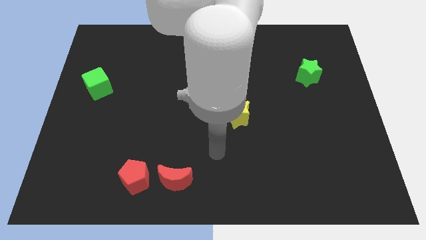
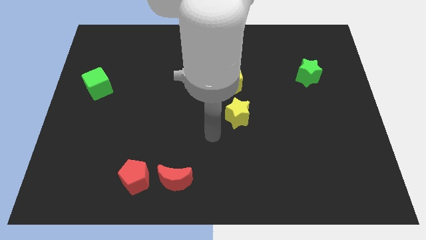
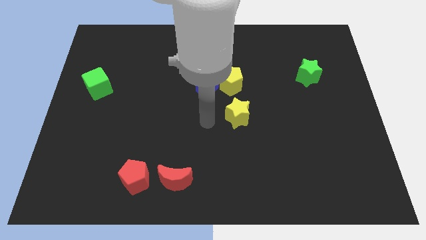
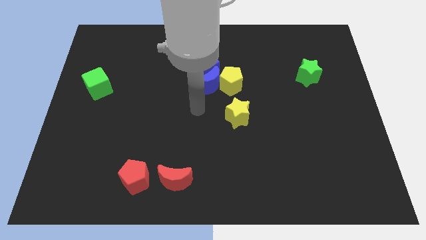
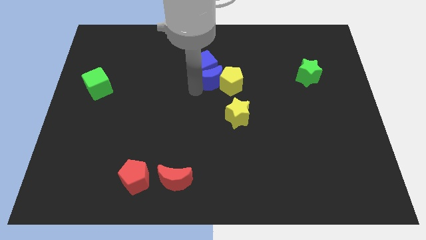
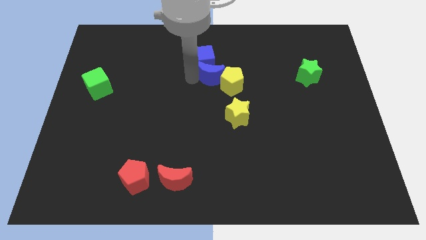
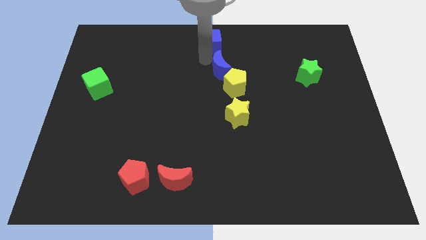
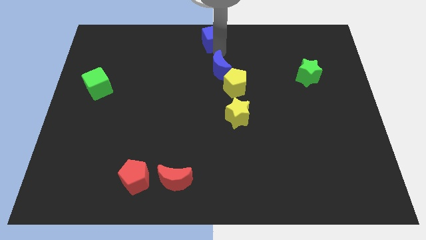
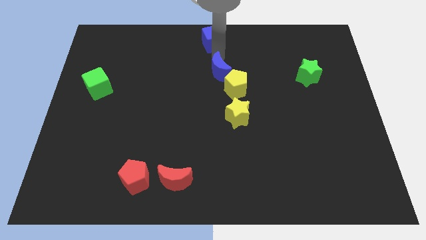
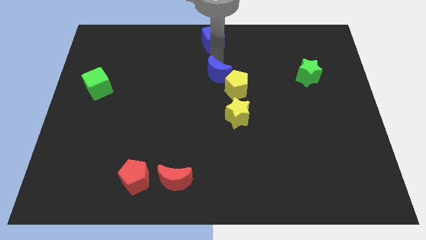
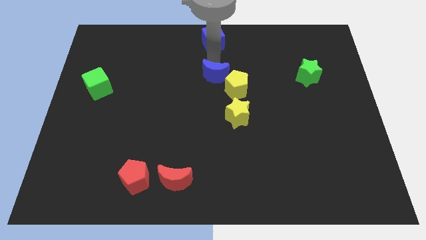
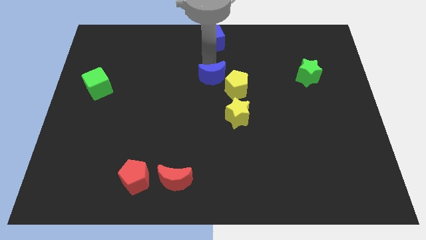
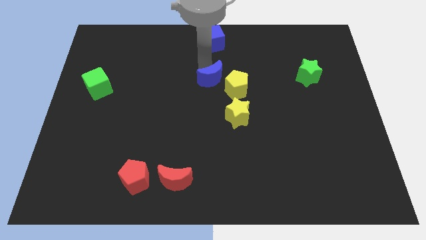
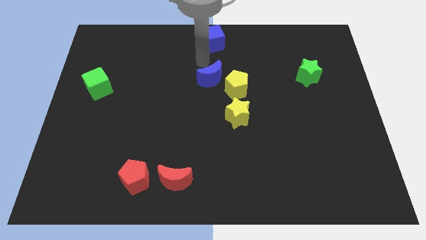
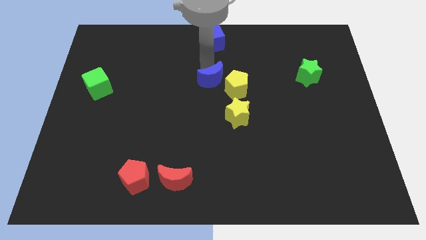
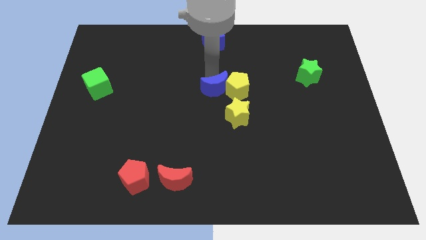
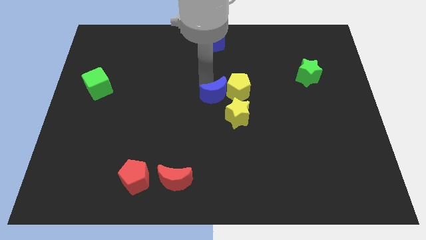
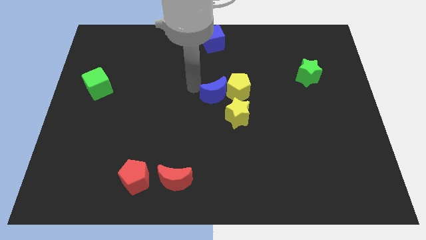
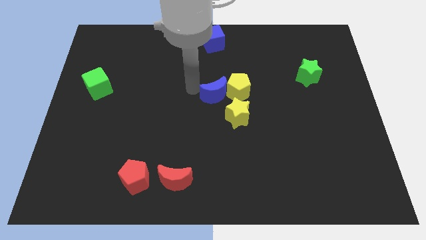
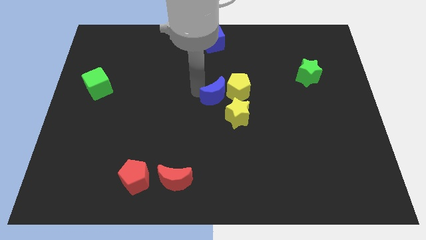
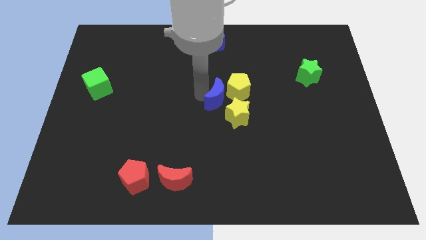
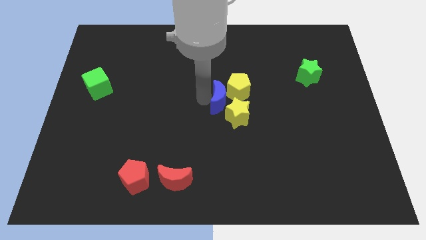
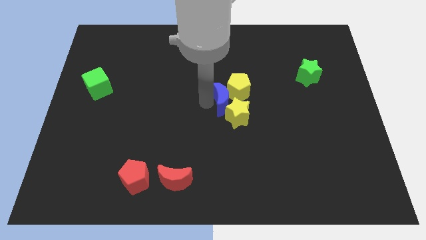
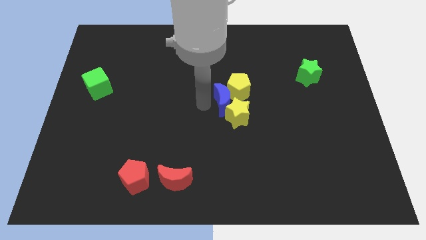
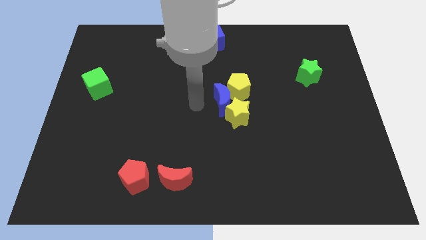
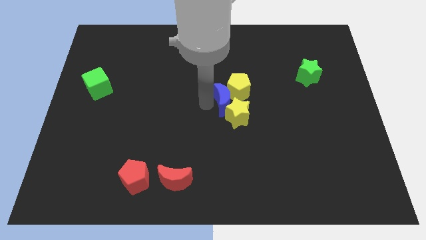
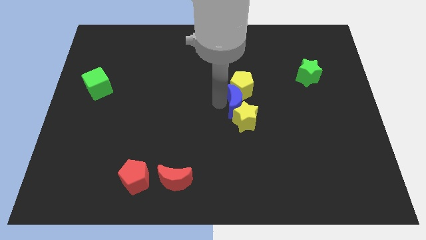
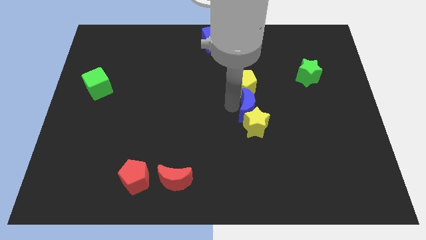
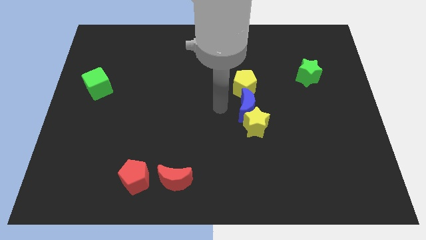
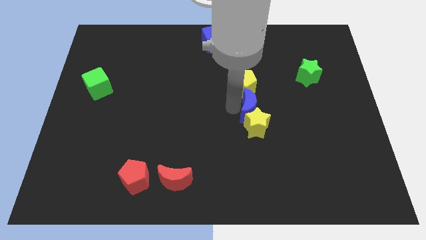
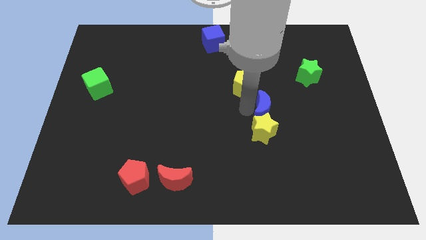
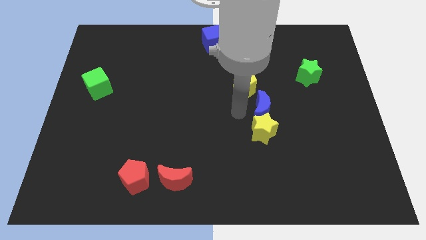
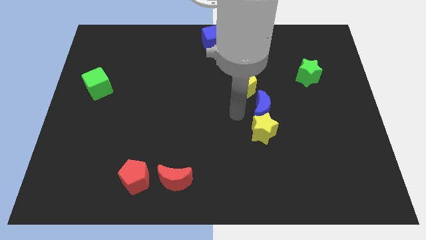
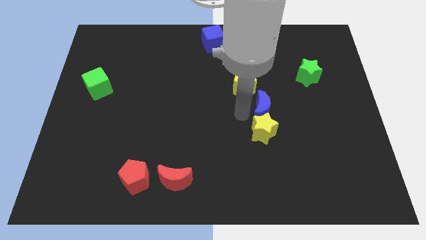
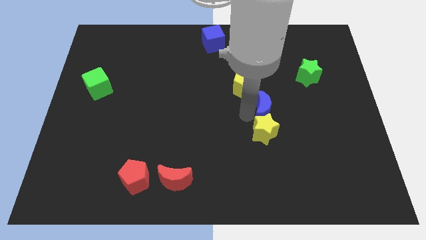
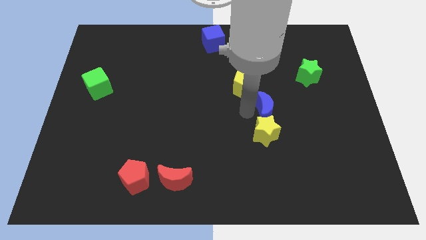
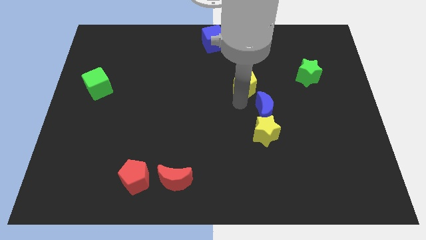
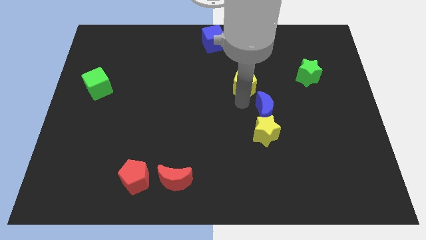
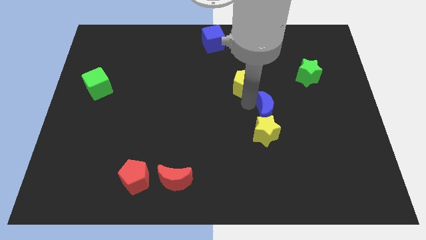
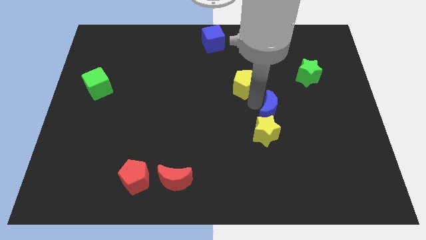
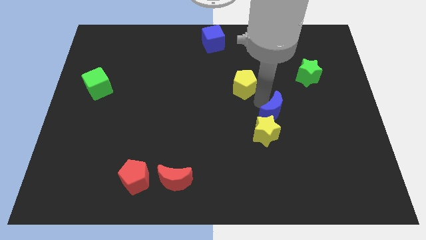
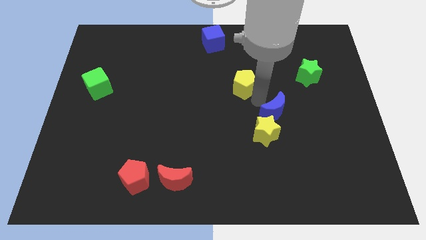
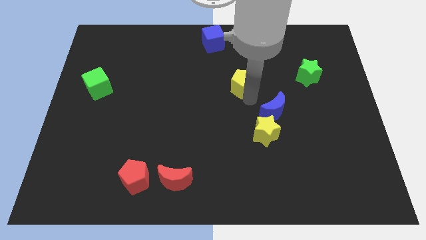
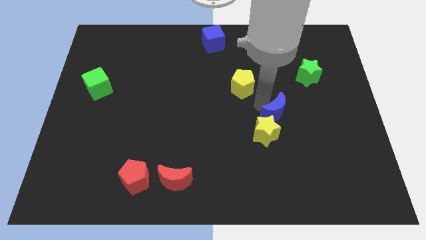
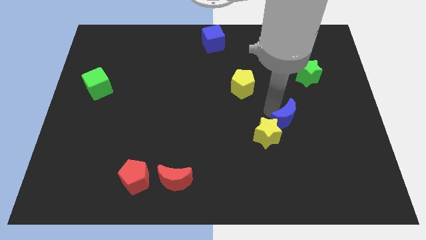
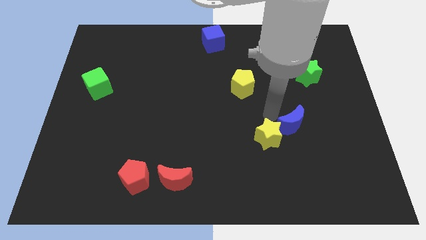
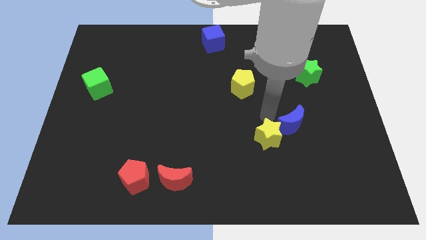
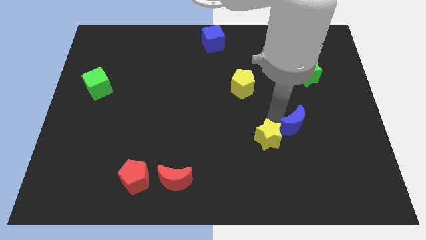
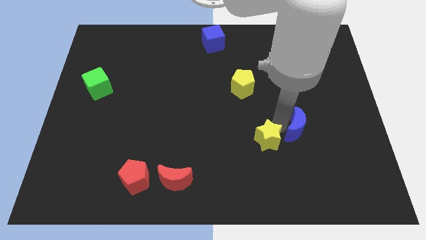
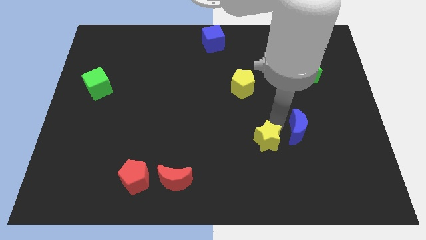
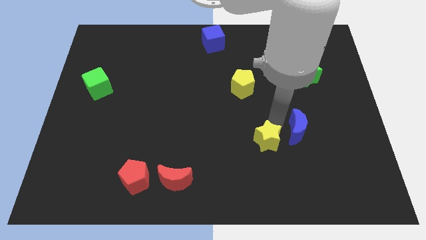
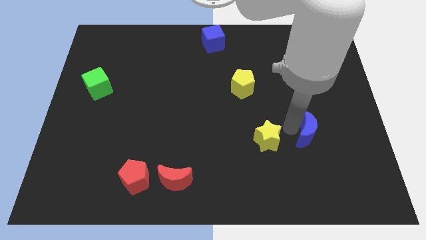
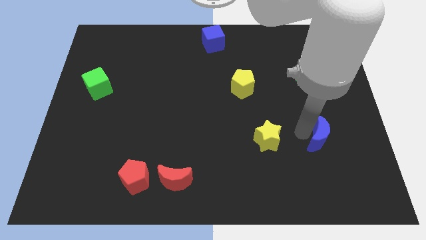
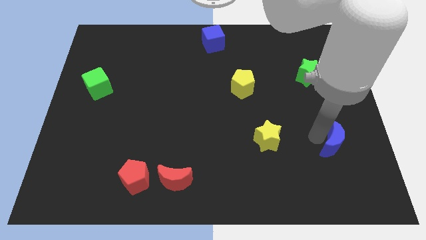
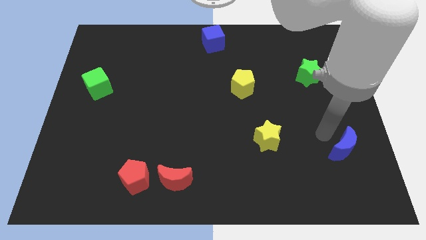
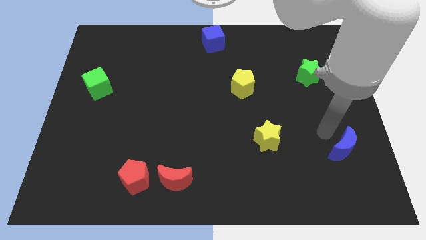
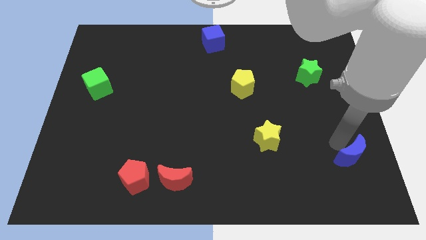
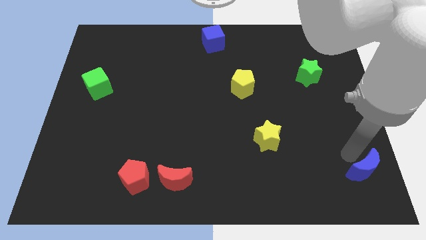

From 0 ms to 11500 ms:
move the blue moon to the bottom right

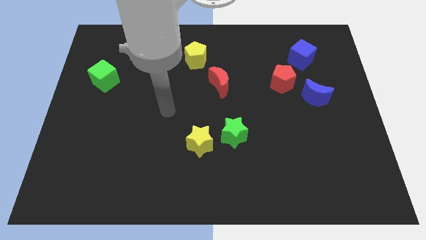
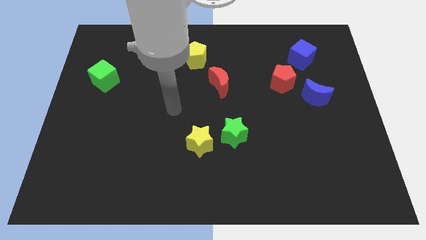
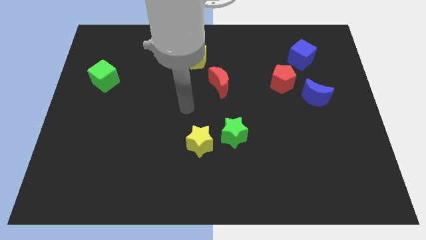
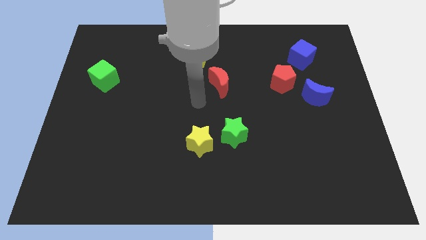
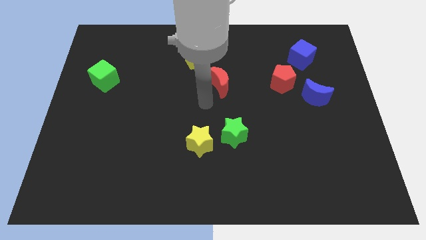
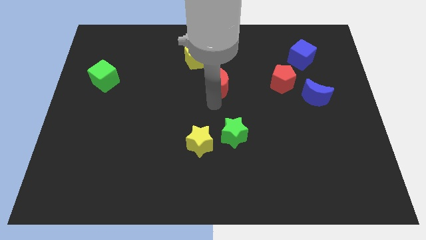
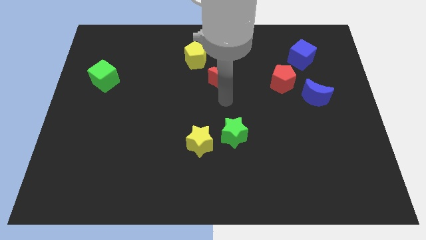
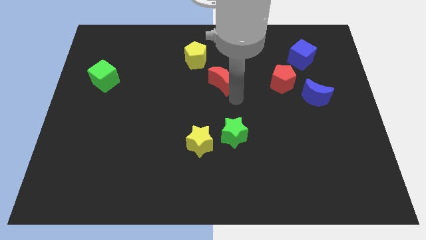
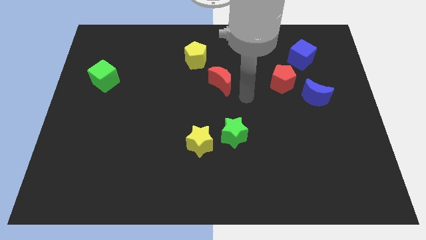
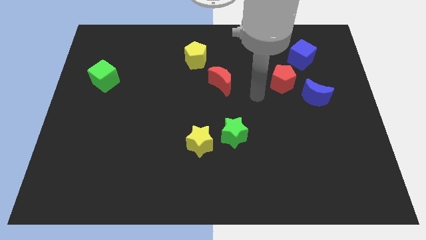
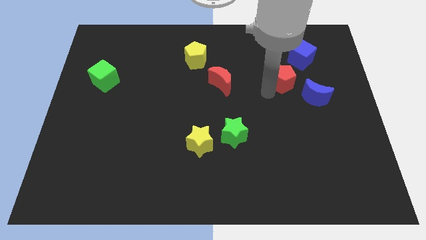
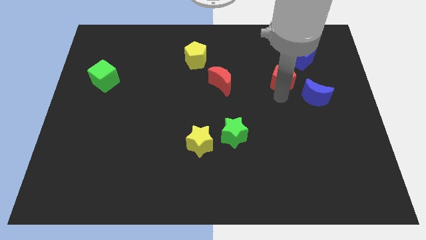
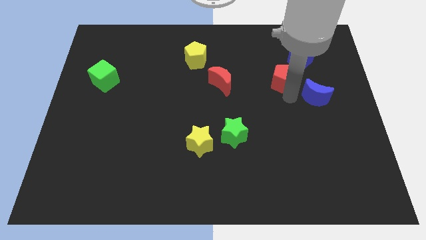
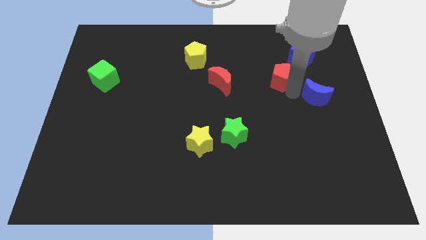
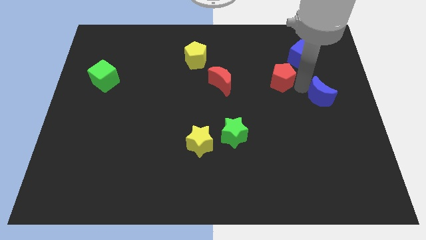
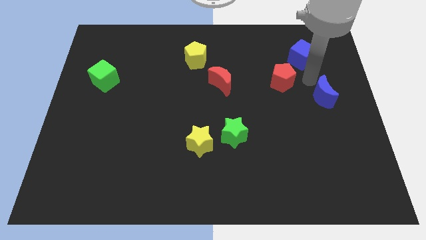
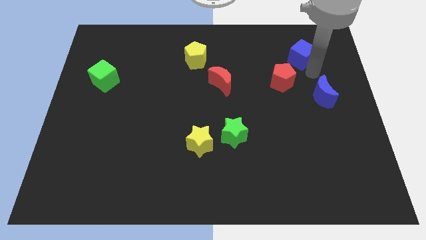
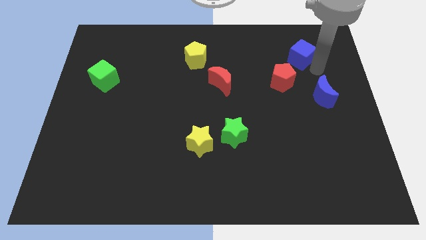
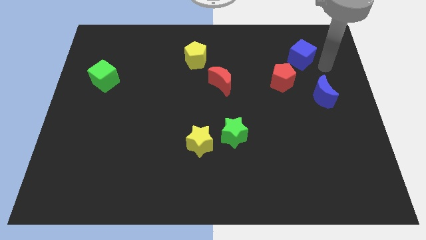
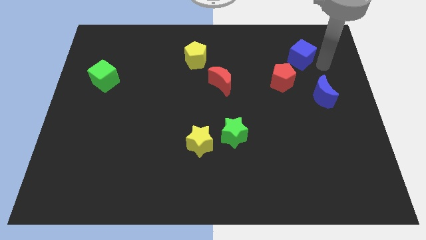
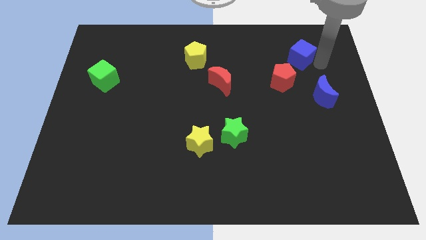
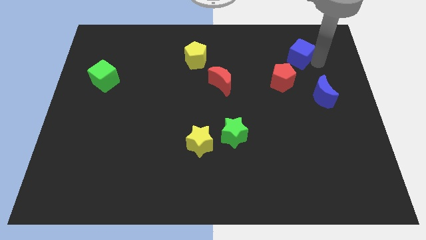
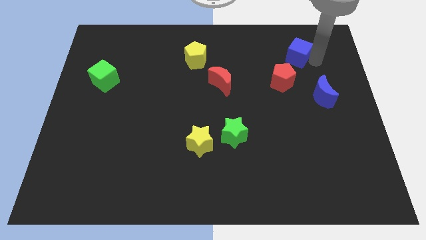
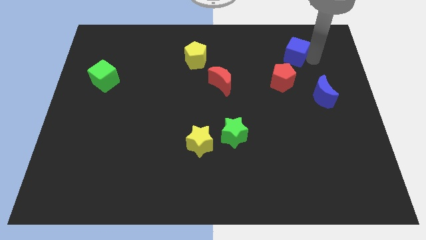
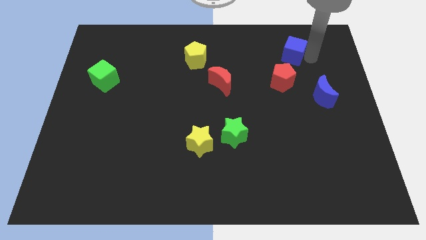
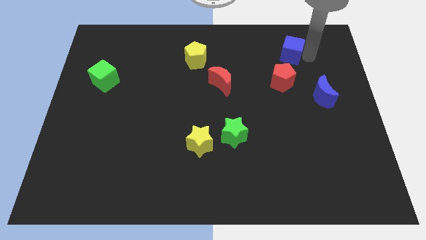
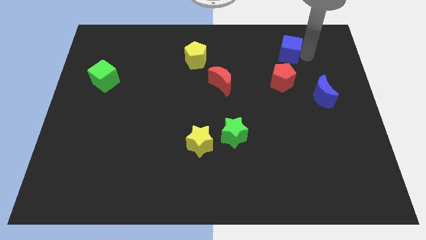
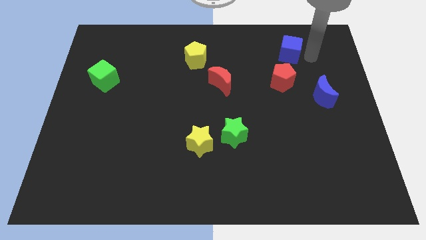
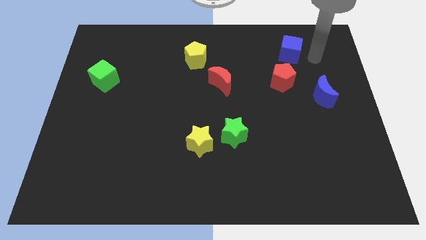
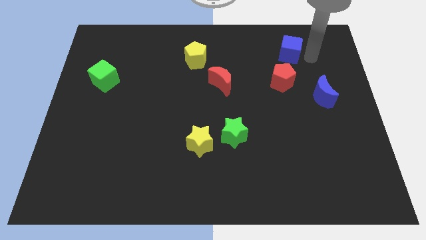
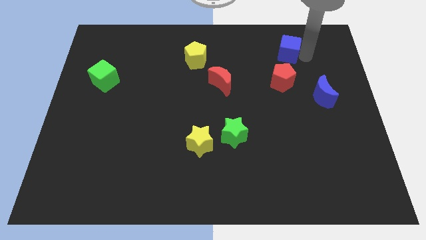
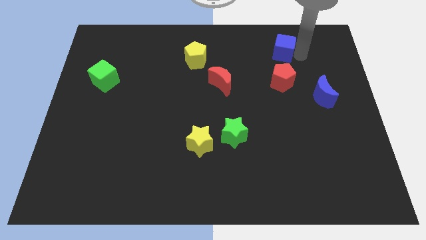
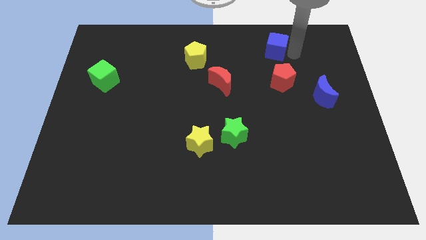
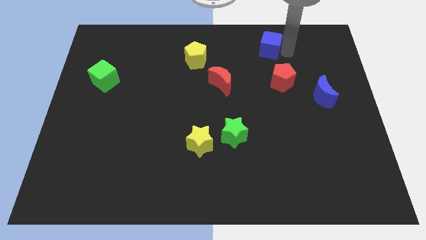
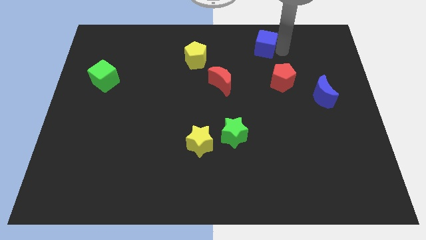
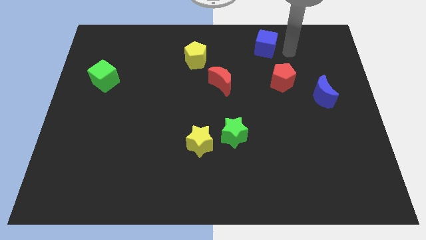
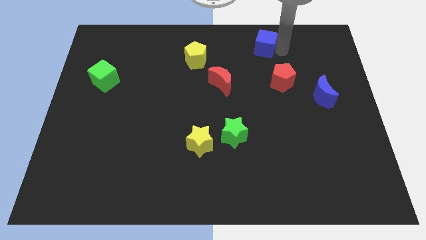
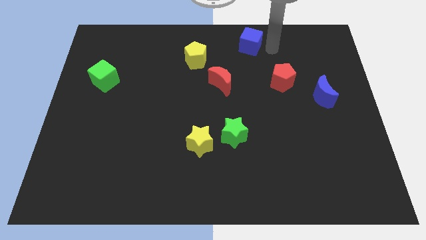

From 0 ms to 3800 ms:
slide the blue cube to the towards your base
